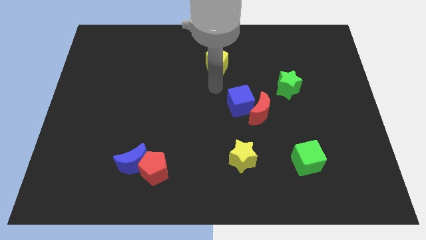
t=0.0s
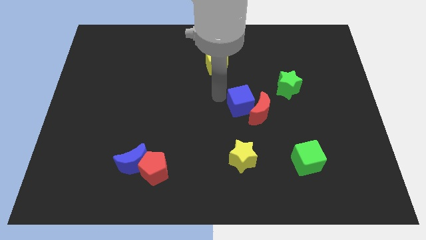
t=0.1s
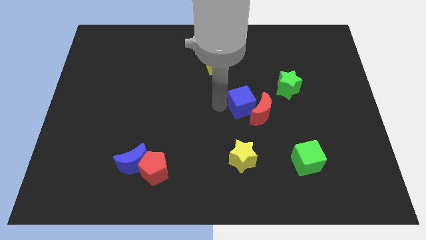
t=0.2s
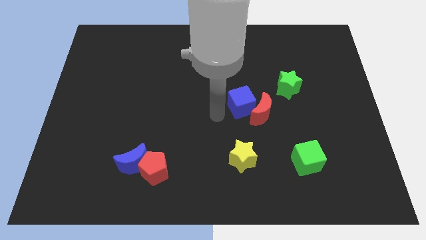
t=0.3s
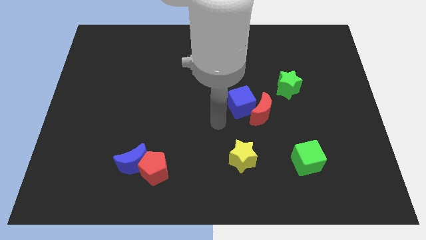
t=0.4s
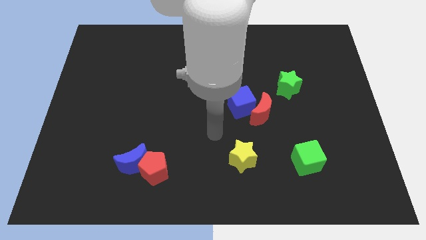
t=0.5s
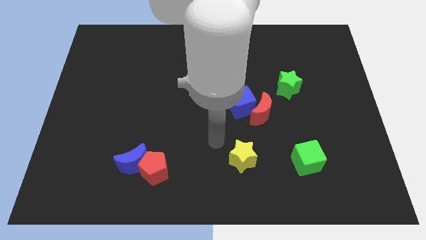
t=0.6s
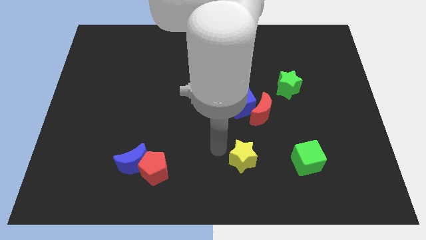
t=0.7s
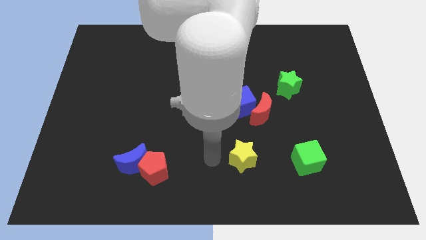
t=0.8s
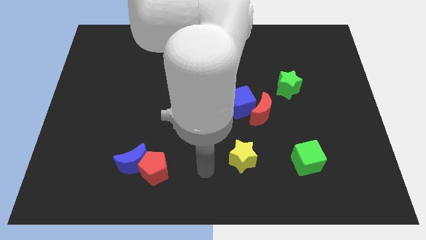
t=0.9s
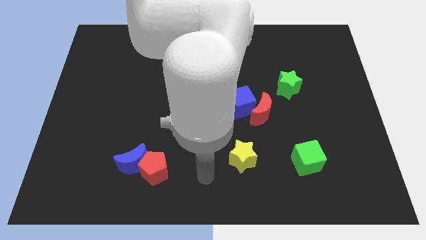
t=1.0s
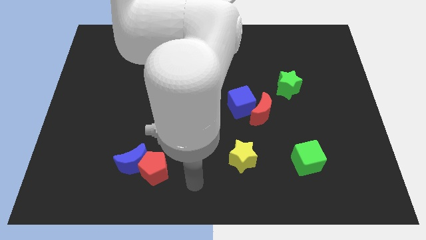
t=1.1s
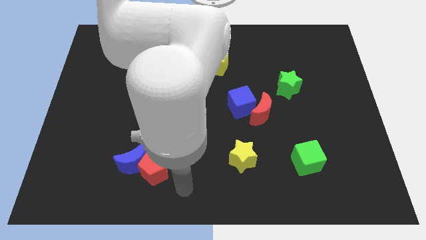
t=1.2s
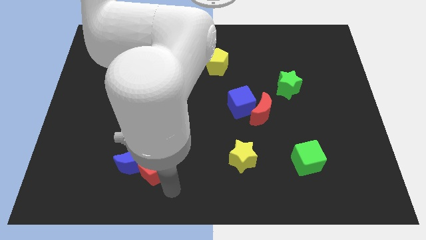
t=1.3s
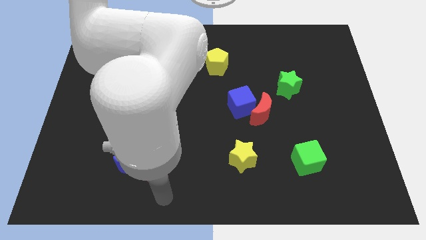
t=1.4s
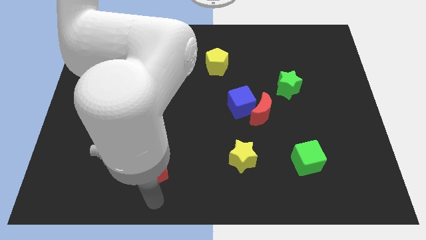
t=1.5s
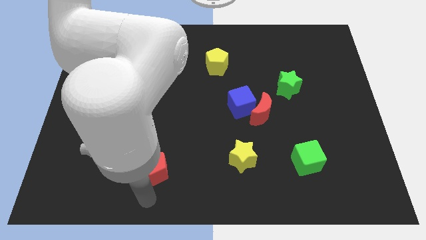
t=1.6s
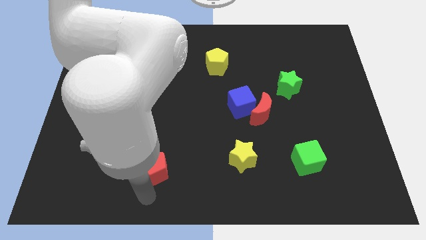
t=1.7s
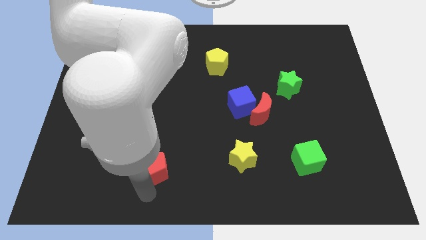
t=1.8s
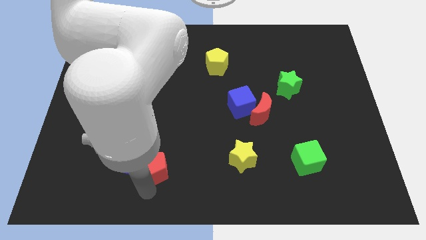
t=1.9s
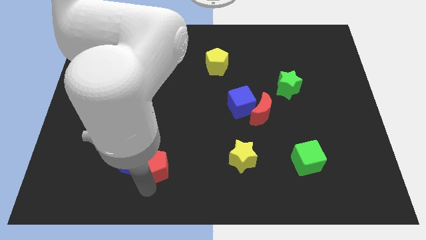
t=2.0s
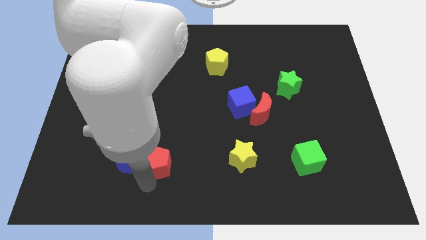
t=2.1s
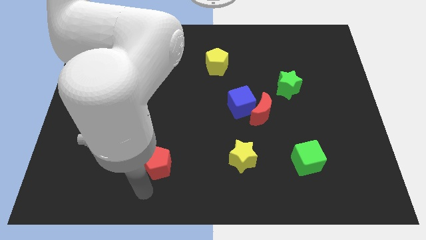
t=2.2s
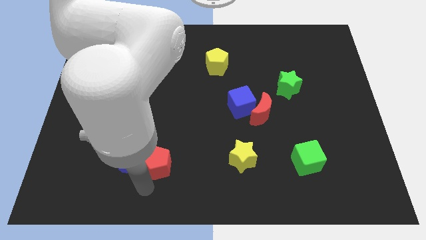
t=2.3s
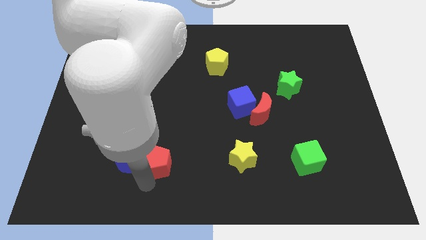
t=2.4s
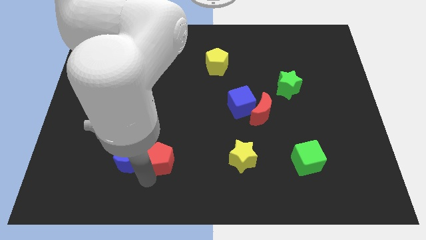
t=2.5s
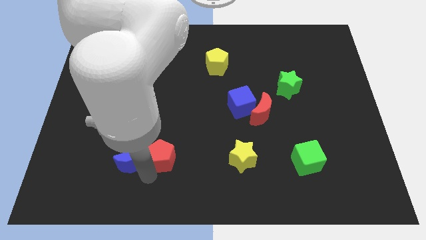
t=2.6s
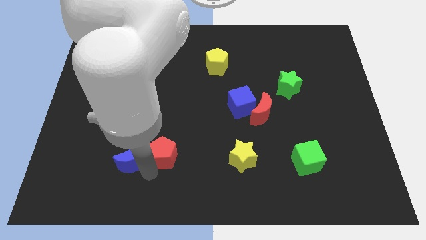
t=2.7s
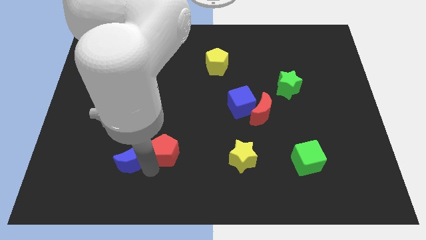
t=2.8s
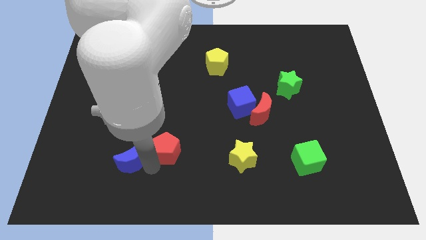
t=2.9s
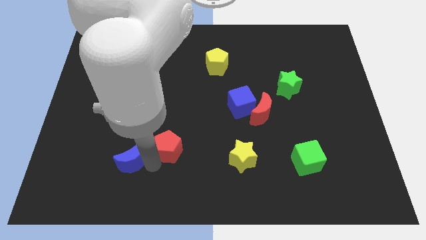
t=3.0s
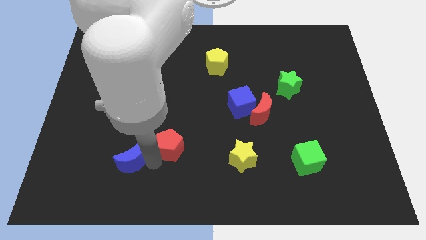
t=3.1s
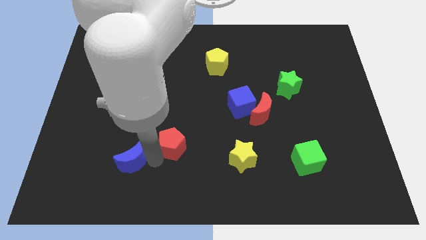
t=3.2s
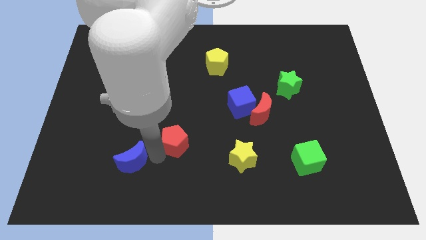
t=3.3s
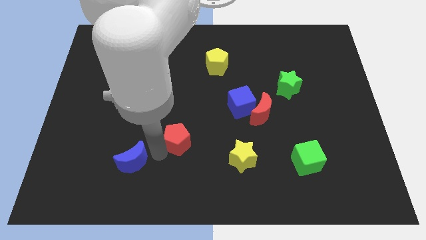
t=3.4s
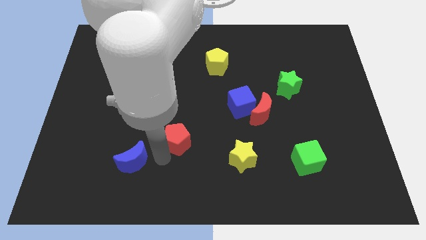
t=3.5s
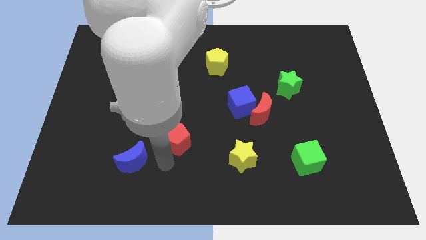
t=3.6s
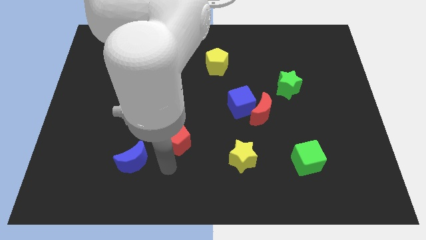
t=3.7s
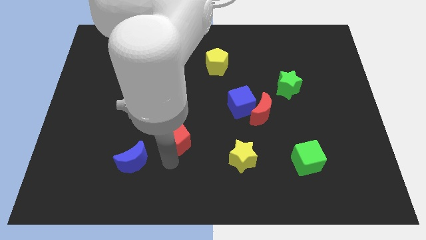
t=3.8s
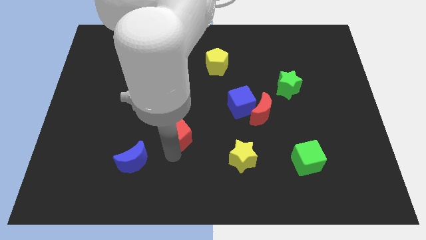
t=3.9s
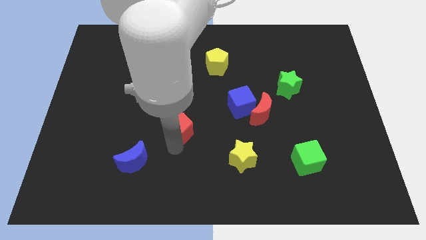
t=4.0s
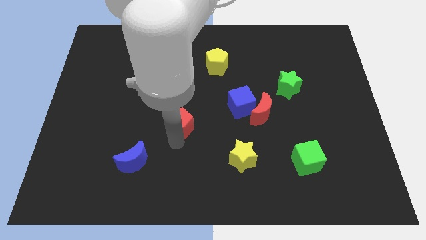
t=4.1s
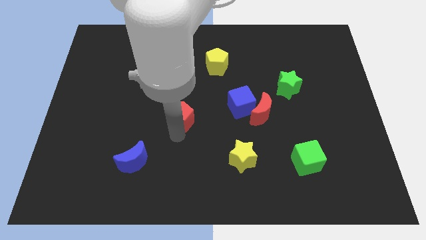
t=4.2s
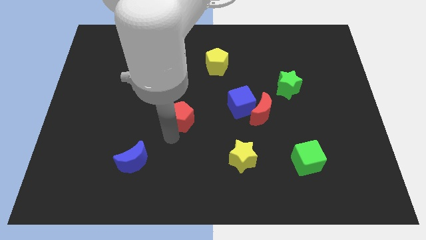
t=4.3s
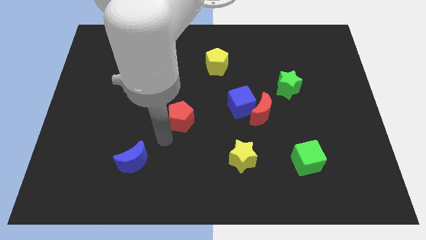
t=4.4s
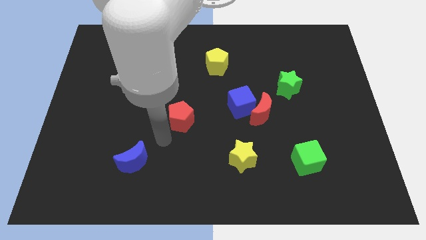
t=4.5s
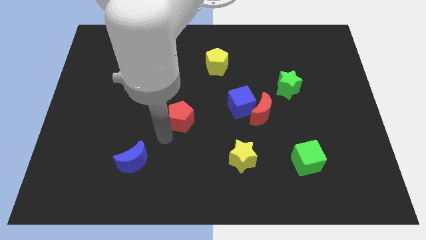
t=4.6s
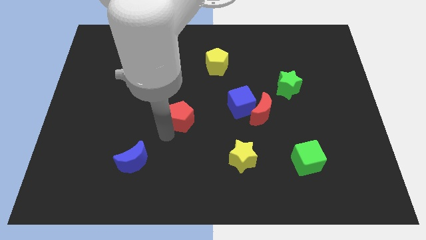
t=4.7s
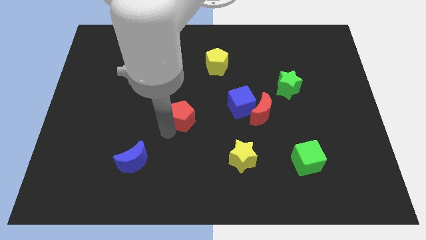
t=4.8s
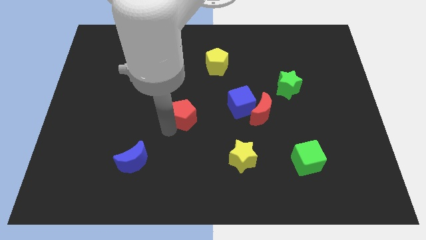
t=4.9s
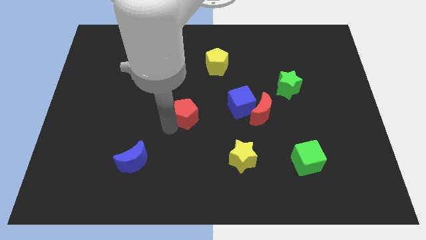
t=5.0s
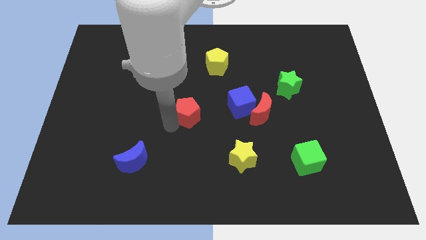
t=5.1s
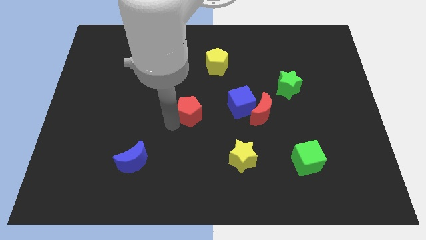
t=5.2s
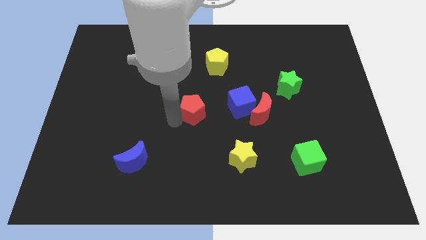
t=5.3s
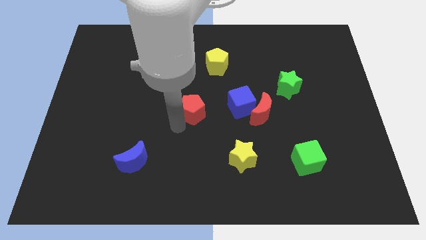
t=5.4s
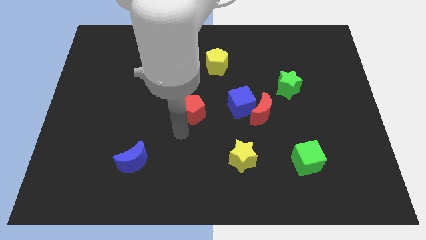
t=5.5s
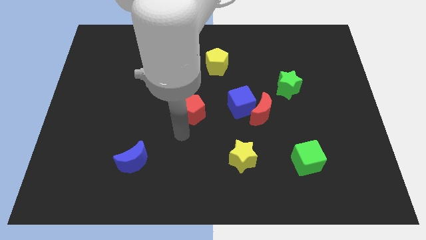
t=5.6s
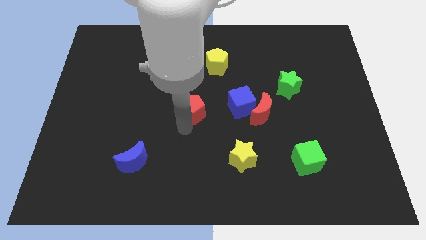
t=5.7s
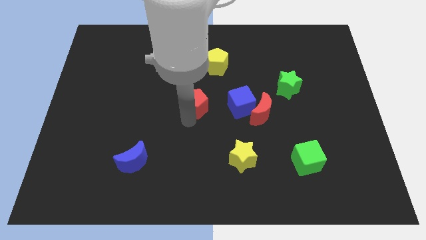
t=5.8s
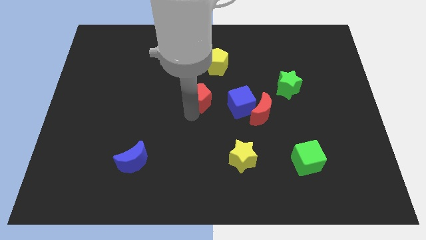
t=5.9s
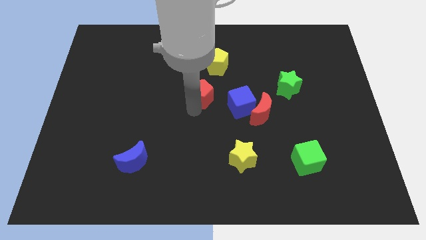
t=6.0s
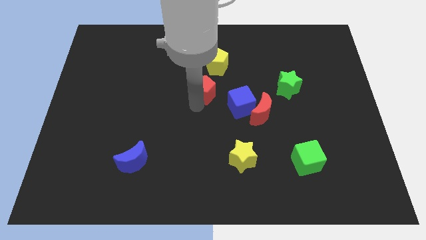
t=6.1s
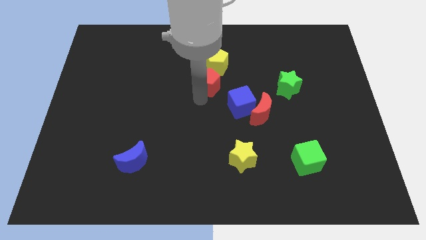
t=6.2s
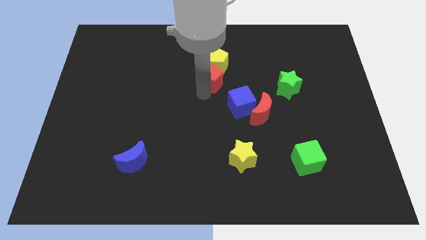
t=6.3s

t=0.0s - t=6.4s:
move the red pentagon close to the yellow pentagon

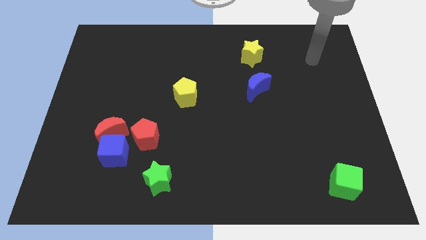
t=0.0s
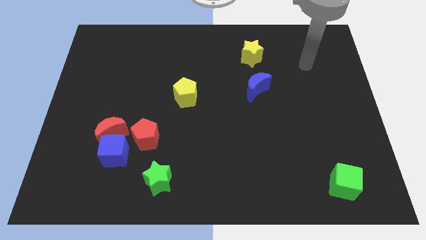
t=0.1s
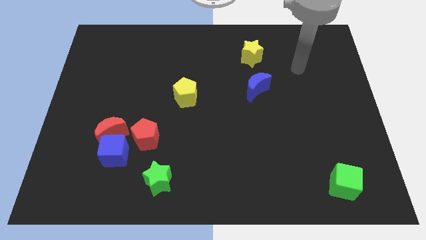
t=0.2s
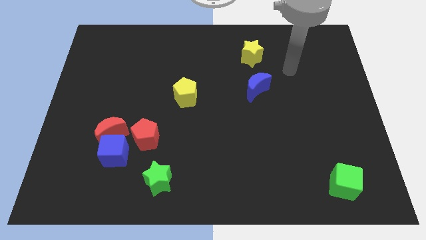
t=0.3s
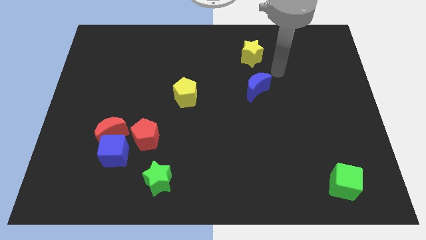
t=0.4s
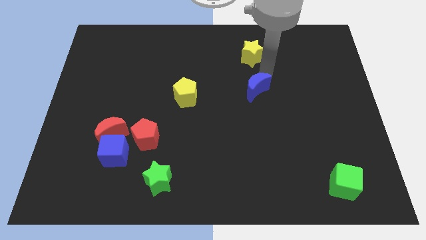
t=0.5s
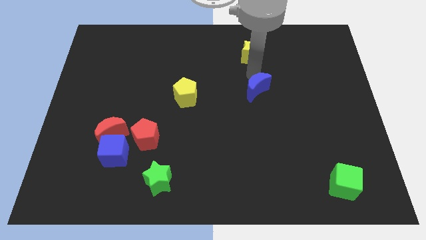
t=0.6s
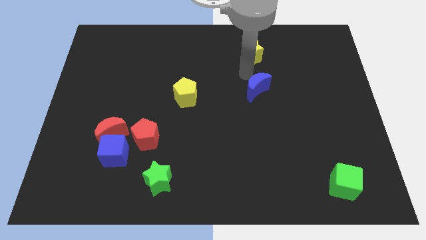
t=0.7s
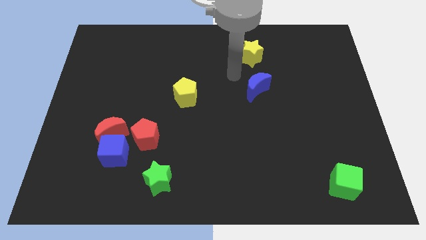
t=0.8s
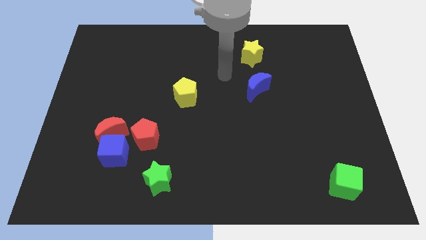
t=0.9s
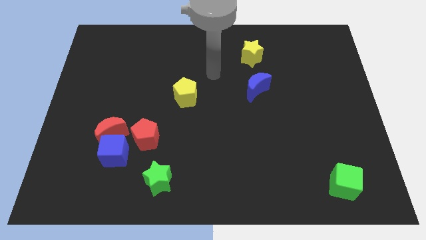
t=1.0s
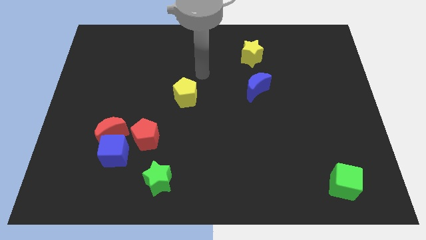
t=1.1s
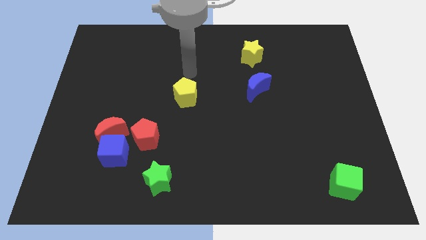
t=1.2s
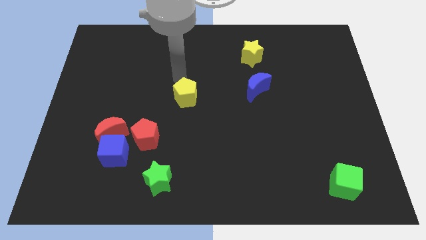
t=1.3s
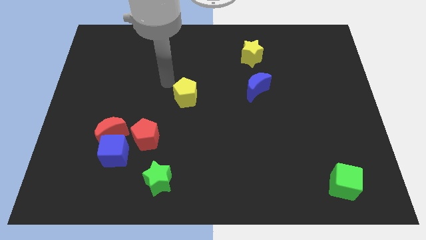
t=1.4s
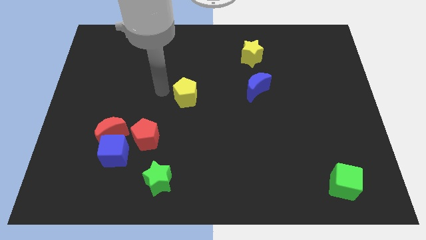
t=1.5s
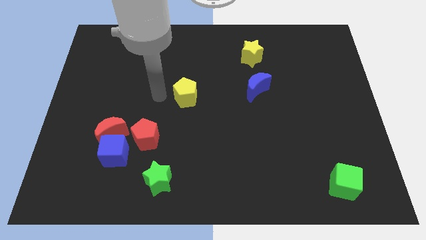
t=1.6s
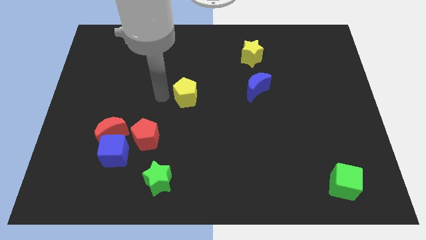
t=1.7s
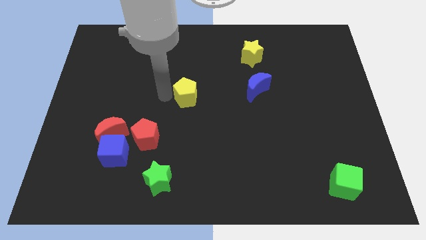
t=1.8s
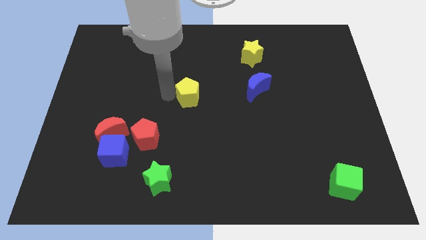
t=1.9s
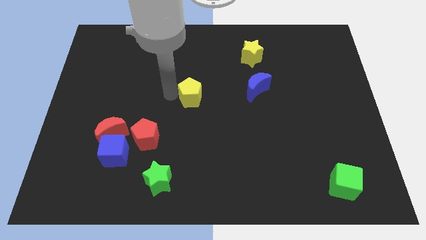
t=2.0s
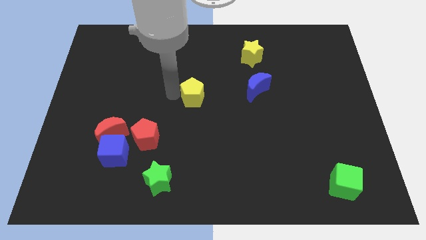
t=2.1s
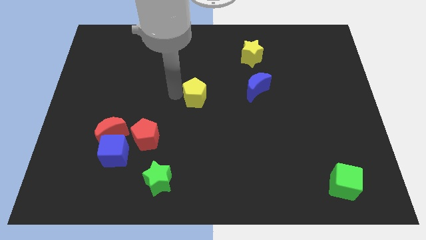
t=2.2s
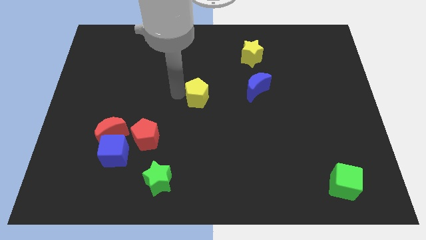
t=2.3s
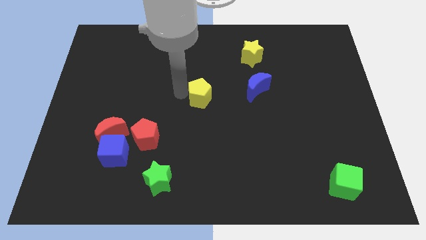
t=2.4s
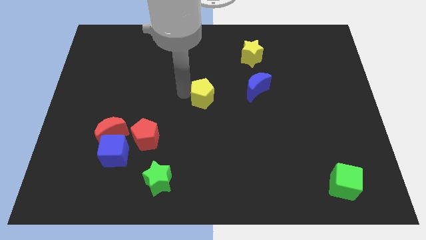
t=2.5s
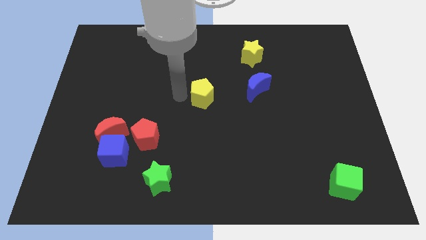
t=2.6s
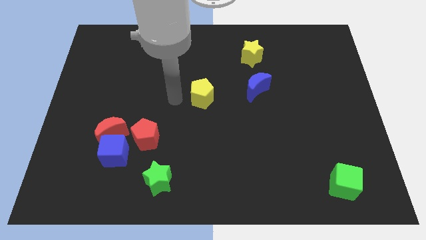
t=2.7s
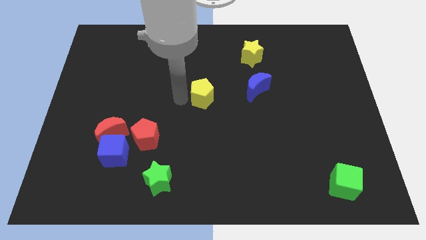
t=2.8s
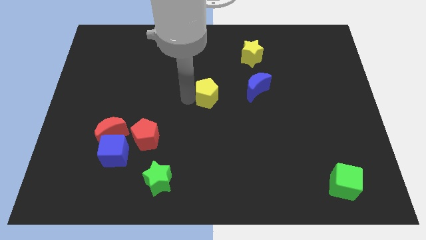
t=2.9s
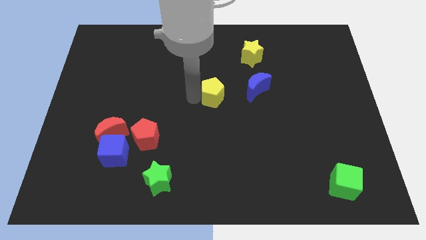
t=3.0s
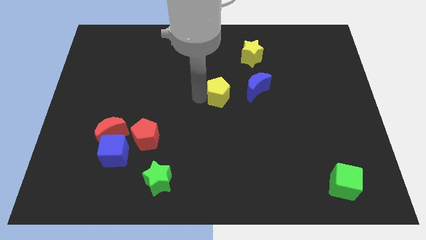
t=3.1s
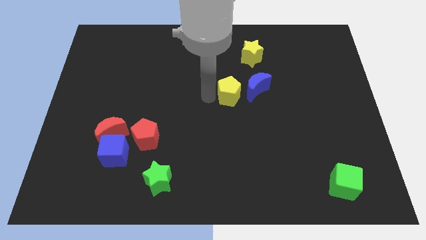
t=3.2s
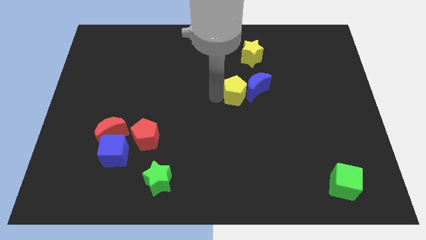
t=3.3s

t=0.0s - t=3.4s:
push the yellow pentagon close to the blue moon
